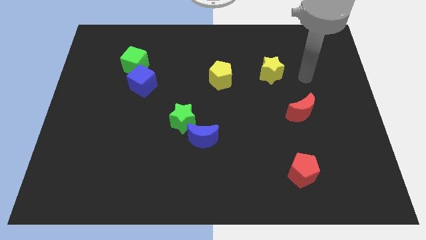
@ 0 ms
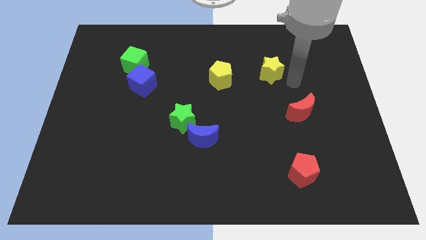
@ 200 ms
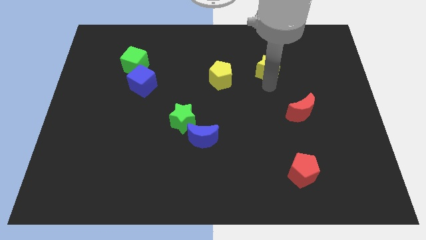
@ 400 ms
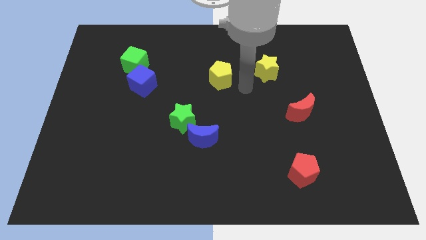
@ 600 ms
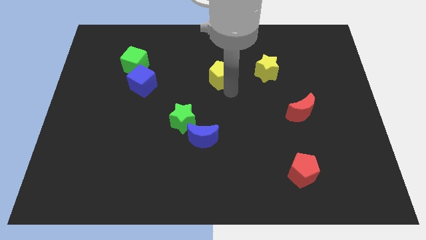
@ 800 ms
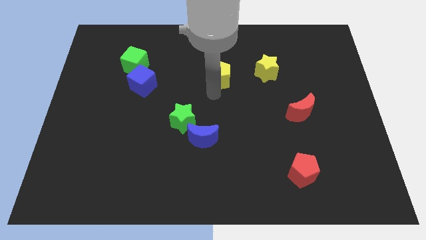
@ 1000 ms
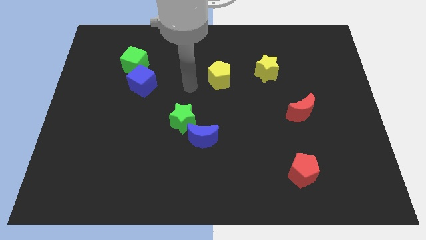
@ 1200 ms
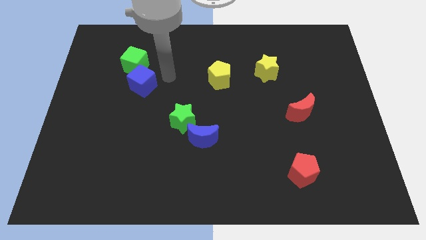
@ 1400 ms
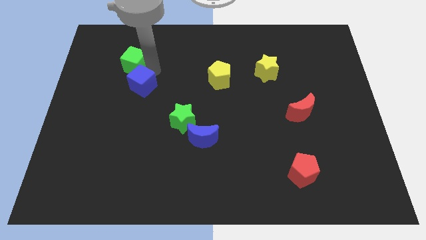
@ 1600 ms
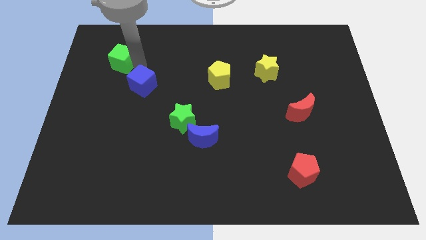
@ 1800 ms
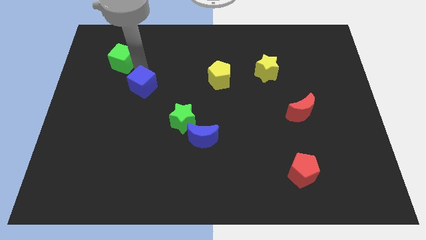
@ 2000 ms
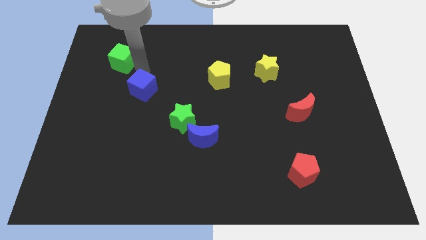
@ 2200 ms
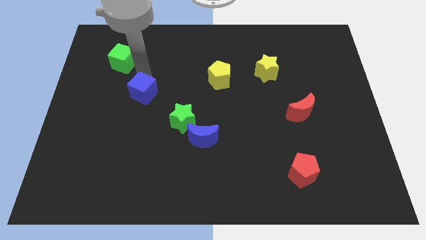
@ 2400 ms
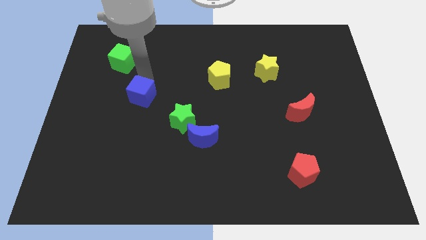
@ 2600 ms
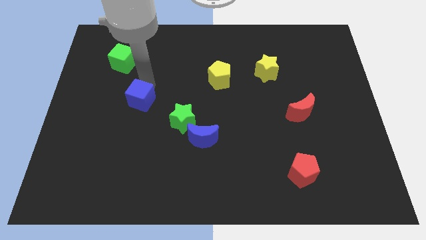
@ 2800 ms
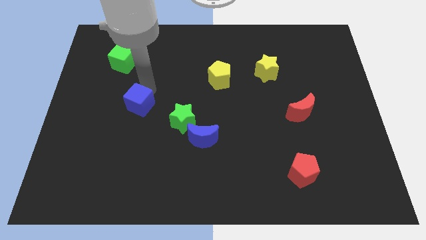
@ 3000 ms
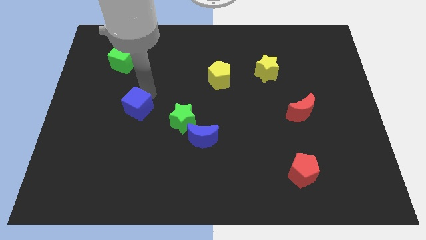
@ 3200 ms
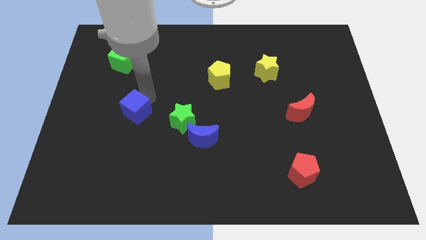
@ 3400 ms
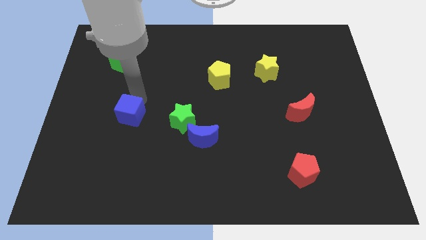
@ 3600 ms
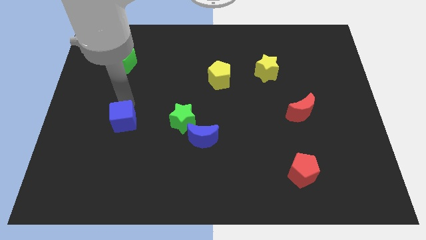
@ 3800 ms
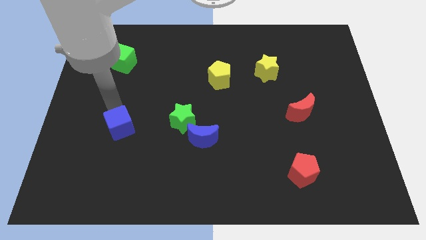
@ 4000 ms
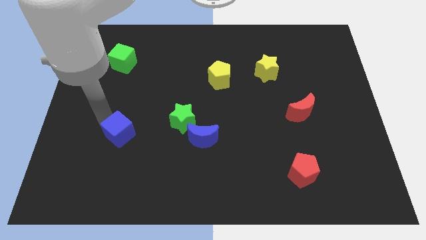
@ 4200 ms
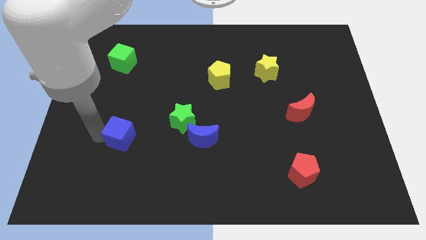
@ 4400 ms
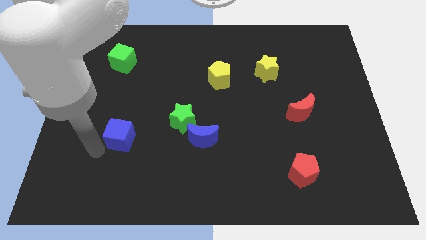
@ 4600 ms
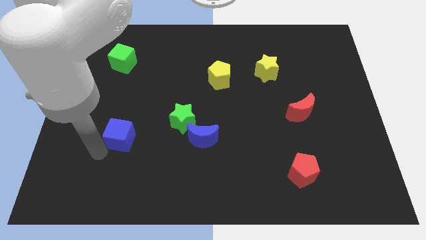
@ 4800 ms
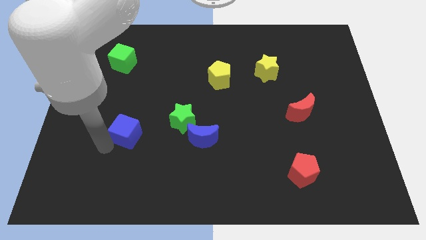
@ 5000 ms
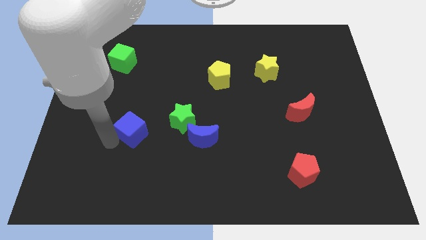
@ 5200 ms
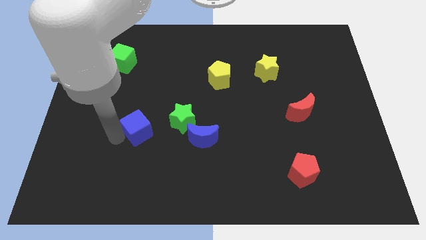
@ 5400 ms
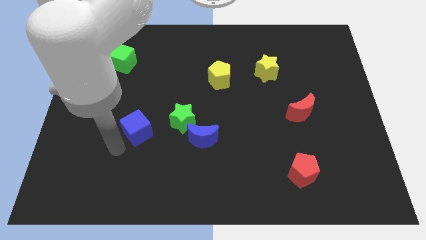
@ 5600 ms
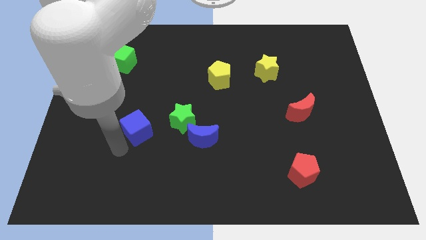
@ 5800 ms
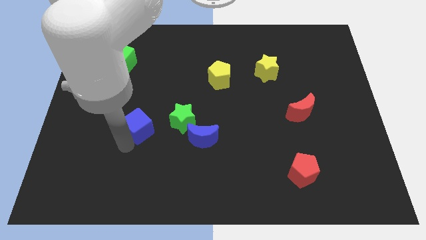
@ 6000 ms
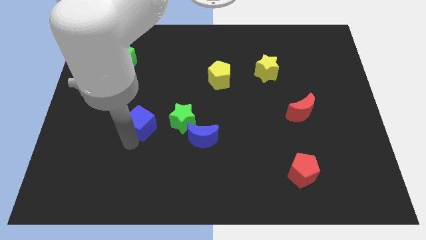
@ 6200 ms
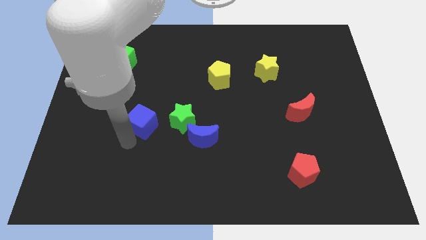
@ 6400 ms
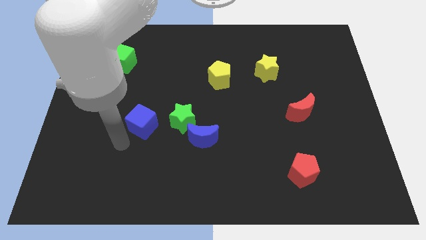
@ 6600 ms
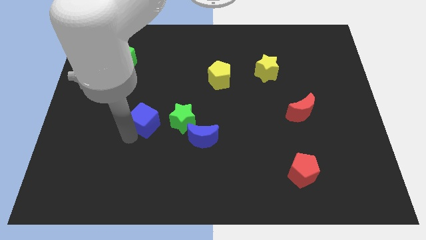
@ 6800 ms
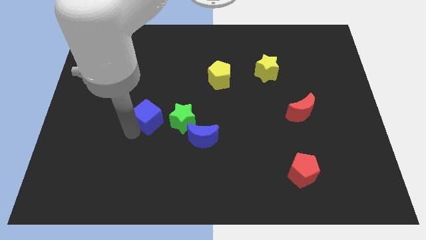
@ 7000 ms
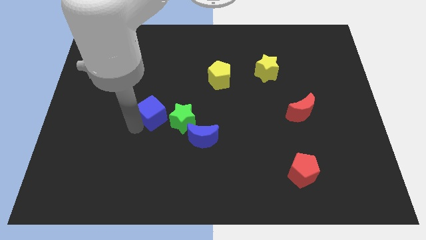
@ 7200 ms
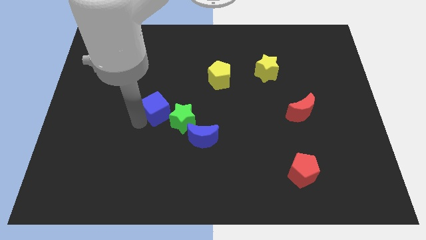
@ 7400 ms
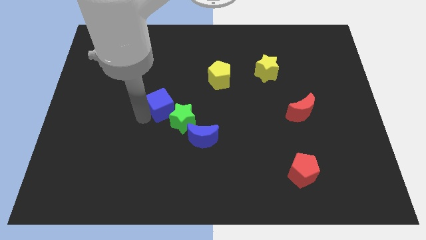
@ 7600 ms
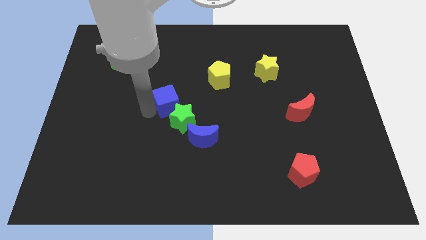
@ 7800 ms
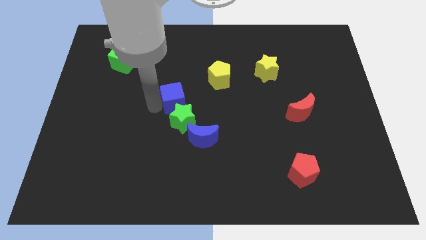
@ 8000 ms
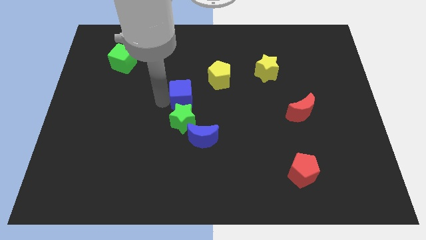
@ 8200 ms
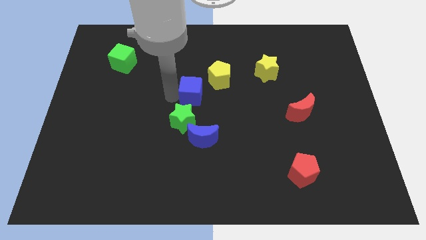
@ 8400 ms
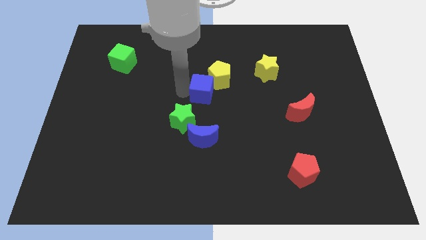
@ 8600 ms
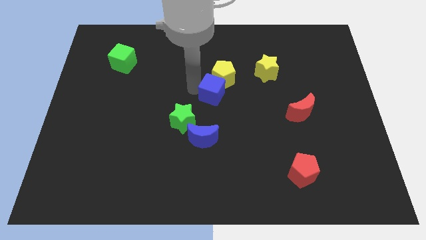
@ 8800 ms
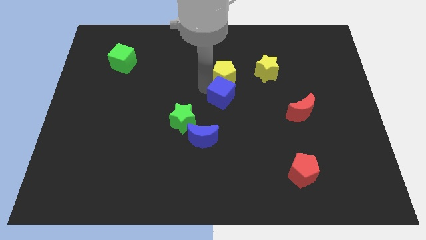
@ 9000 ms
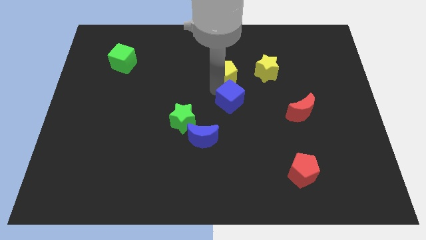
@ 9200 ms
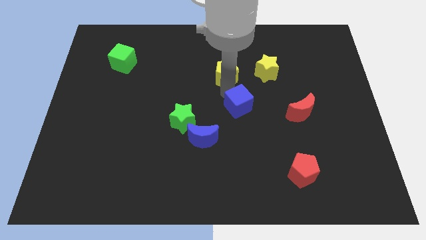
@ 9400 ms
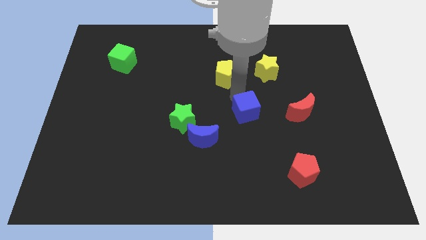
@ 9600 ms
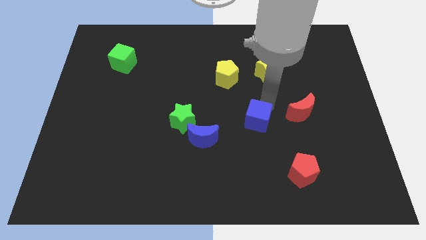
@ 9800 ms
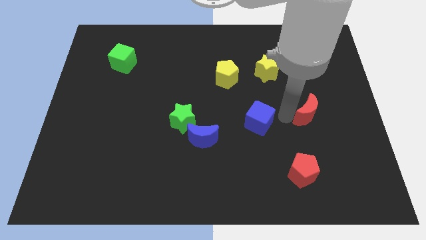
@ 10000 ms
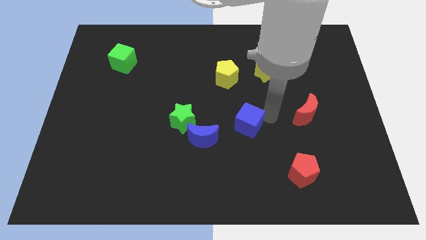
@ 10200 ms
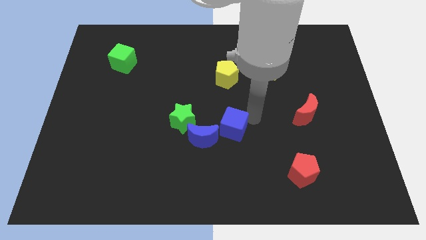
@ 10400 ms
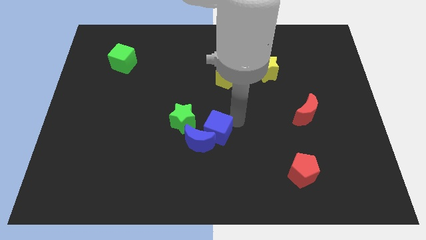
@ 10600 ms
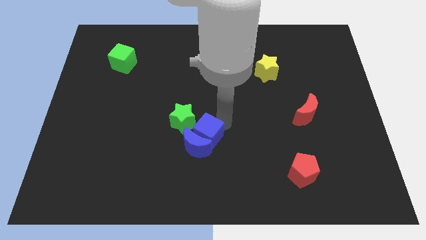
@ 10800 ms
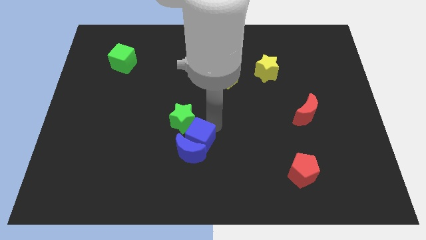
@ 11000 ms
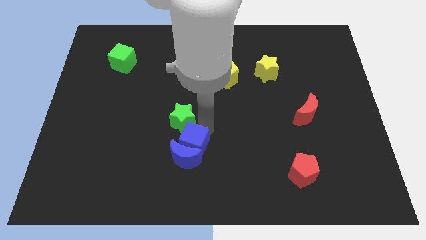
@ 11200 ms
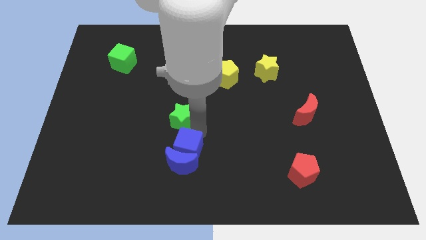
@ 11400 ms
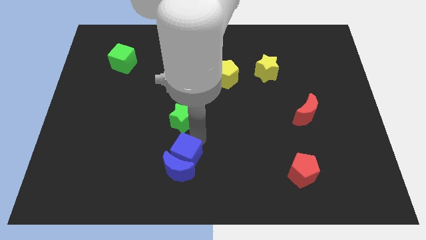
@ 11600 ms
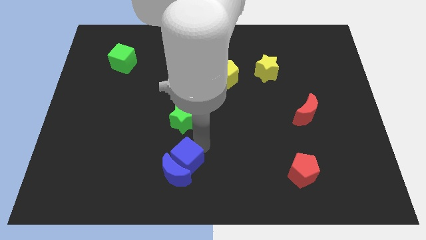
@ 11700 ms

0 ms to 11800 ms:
slide the blue cube to the bottom side

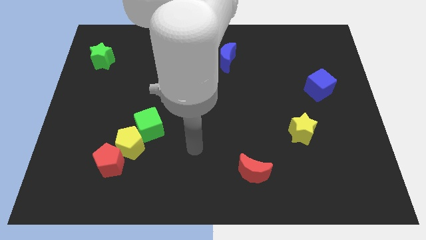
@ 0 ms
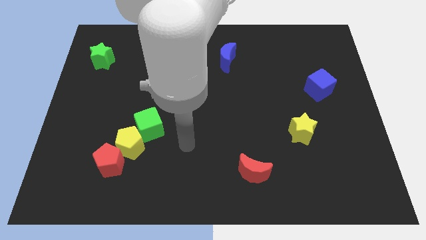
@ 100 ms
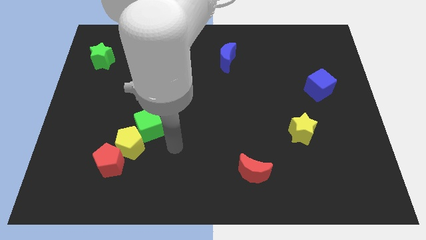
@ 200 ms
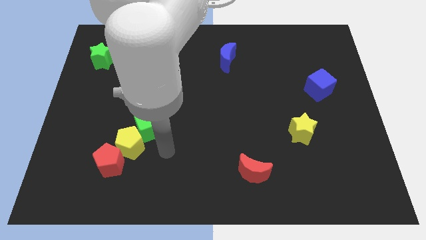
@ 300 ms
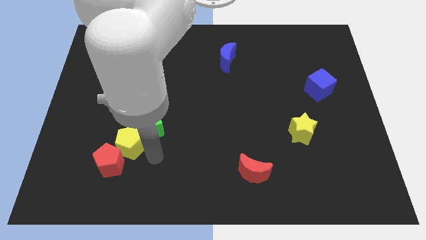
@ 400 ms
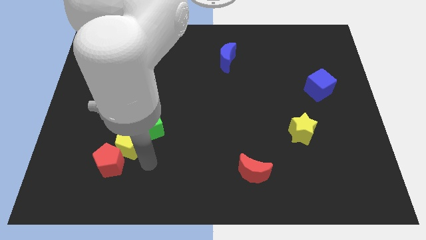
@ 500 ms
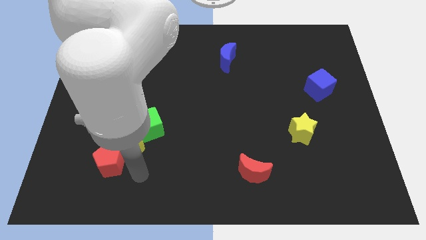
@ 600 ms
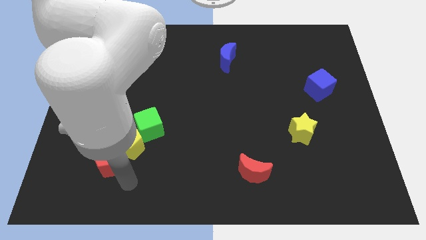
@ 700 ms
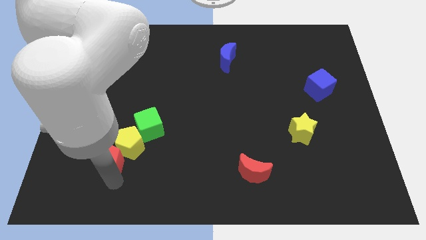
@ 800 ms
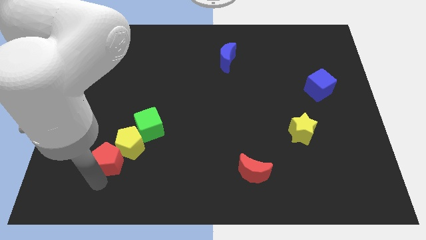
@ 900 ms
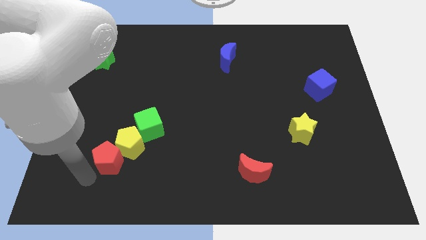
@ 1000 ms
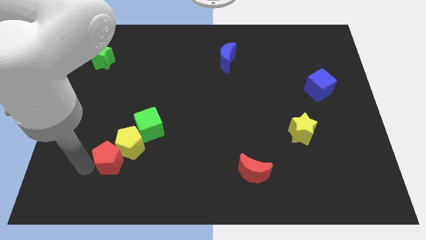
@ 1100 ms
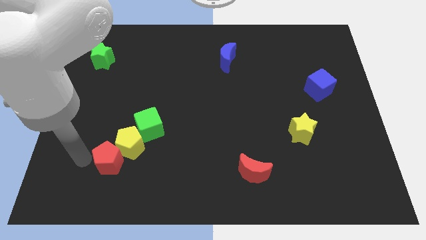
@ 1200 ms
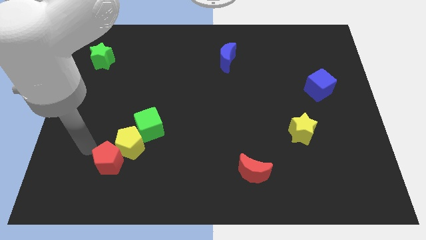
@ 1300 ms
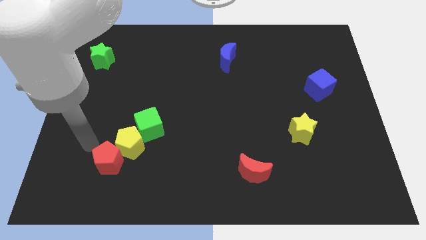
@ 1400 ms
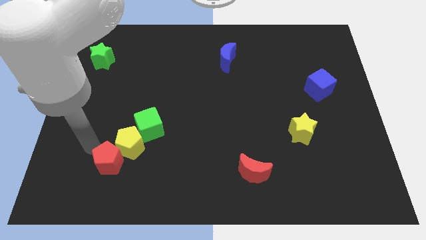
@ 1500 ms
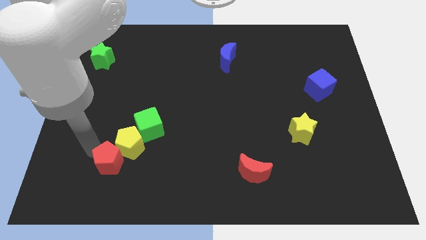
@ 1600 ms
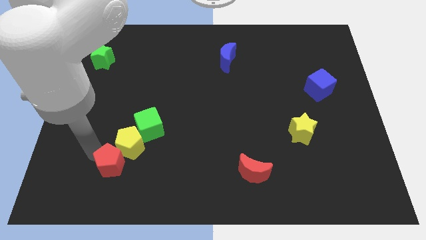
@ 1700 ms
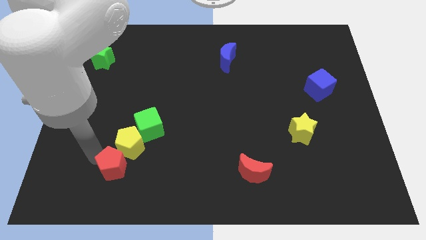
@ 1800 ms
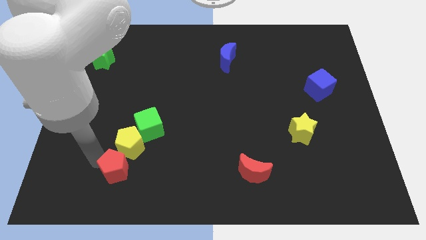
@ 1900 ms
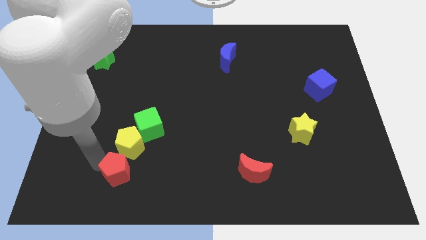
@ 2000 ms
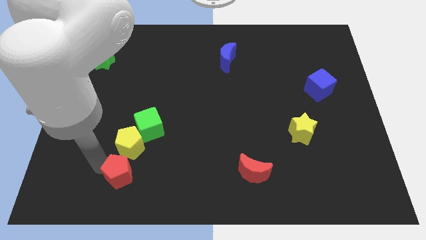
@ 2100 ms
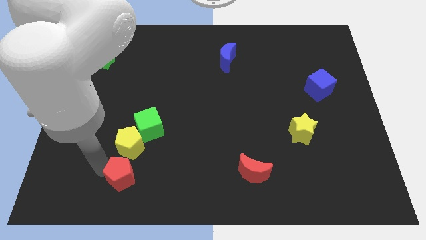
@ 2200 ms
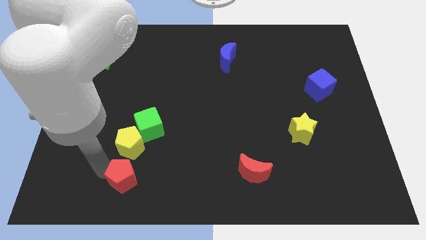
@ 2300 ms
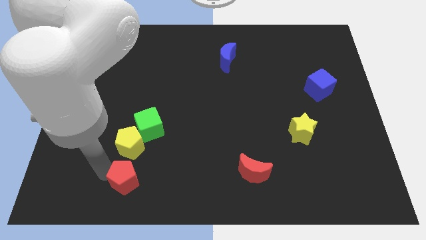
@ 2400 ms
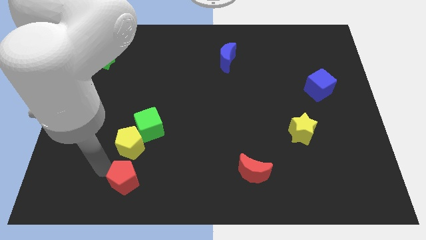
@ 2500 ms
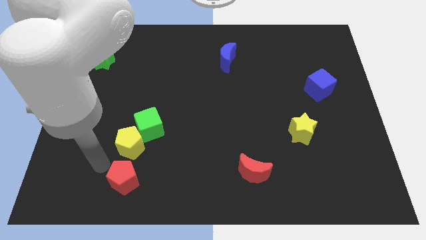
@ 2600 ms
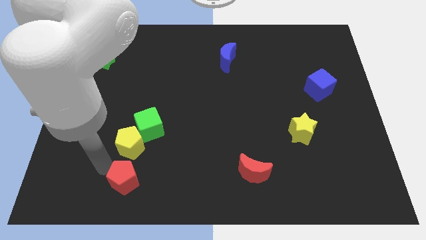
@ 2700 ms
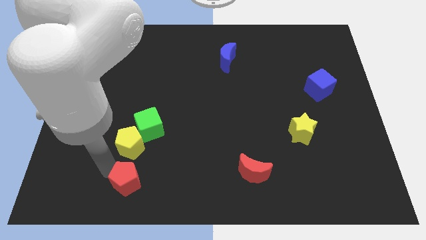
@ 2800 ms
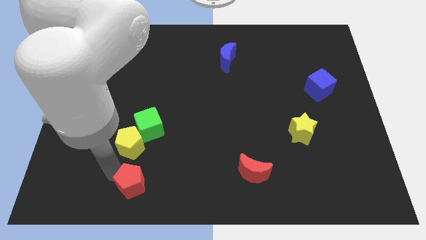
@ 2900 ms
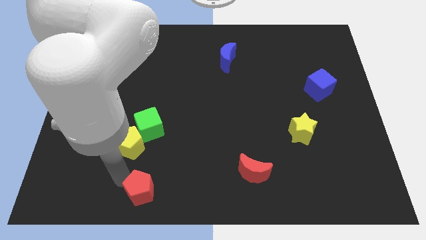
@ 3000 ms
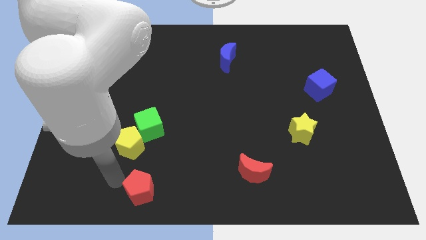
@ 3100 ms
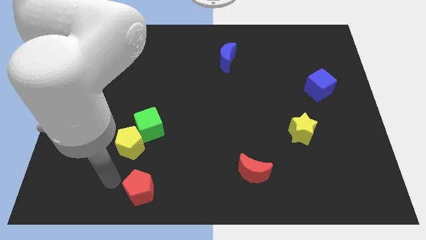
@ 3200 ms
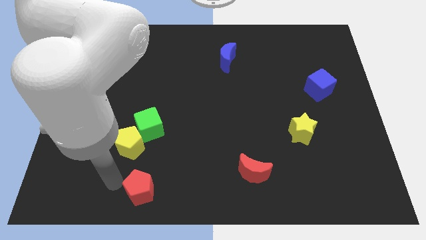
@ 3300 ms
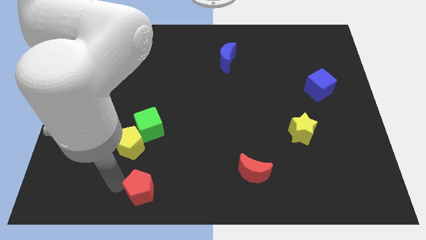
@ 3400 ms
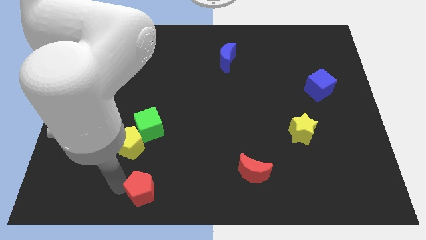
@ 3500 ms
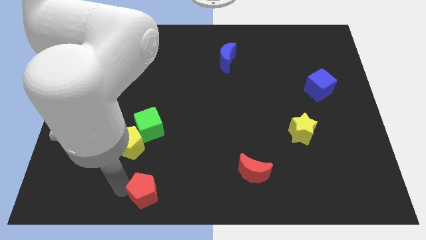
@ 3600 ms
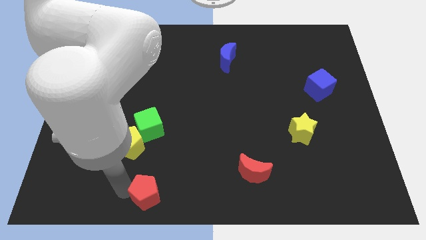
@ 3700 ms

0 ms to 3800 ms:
move the red pentagon to the bottom
